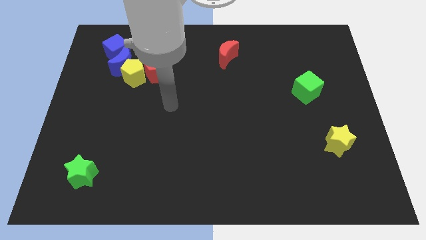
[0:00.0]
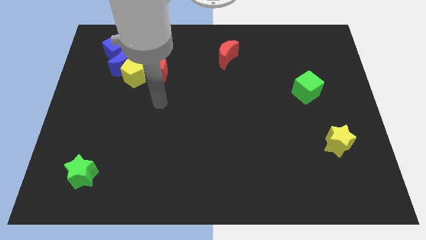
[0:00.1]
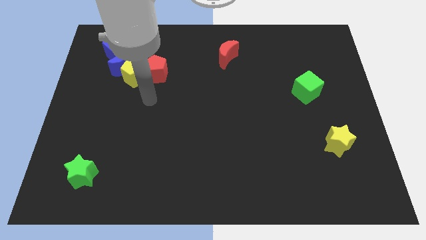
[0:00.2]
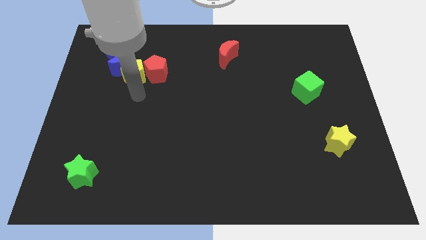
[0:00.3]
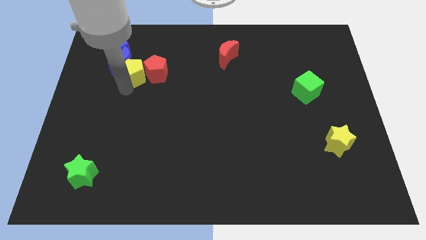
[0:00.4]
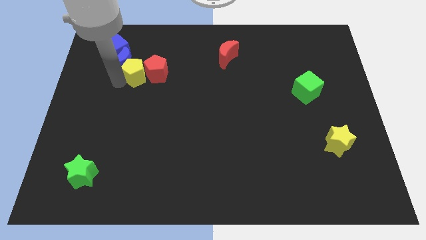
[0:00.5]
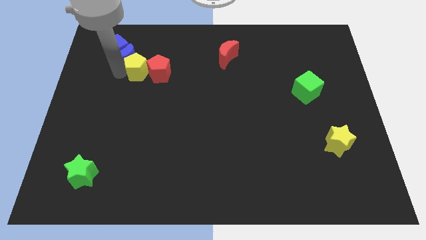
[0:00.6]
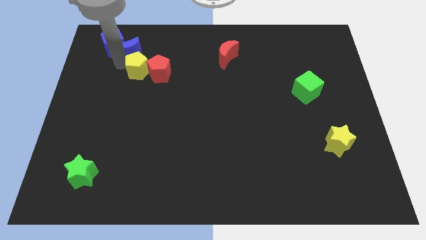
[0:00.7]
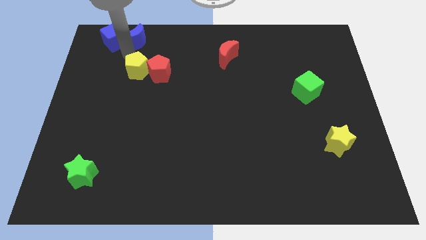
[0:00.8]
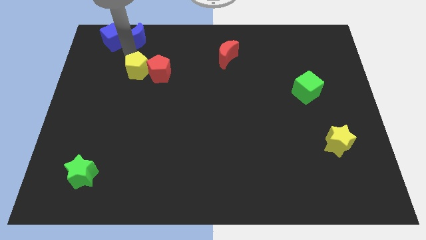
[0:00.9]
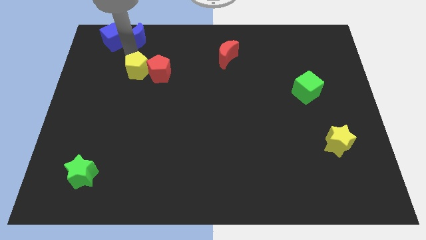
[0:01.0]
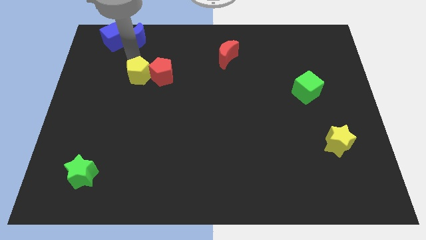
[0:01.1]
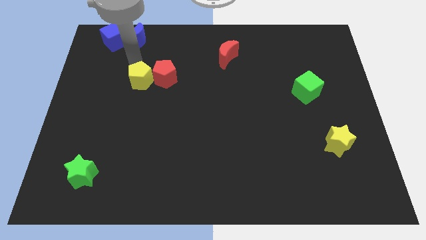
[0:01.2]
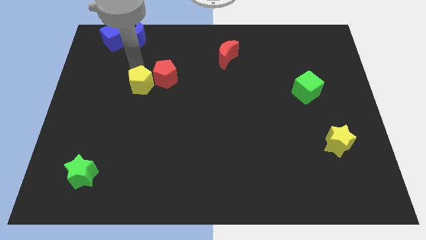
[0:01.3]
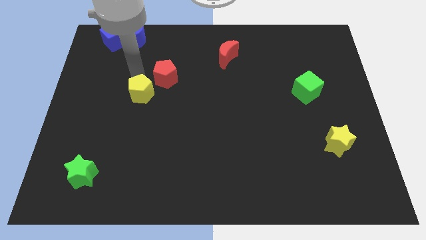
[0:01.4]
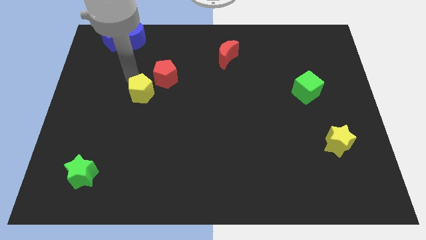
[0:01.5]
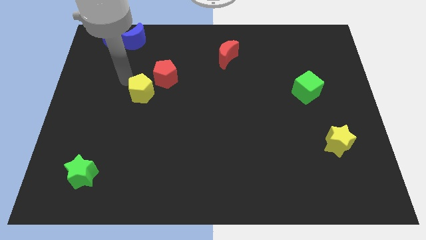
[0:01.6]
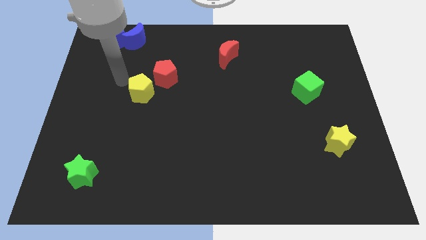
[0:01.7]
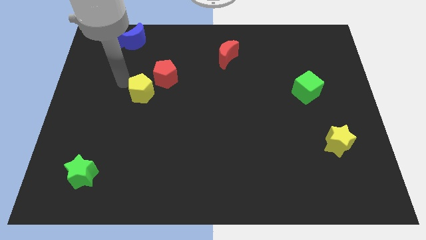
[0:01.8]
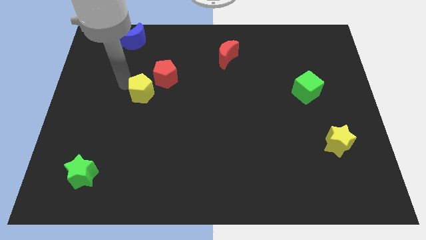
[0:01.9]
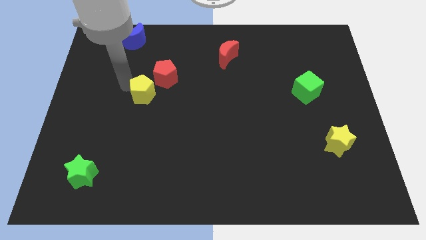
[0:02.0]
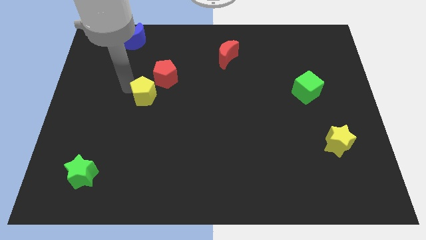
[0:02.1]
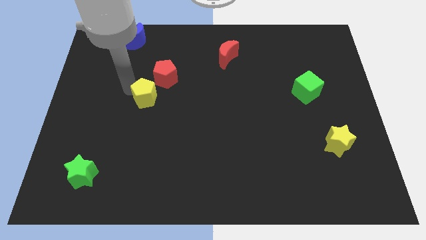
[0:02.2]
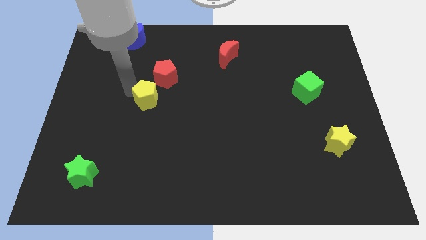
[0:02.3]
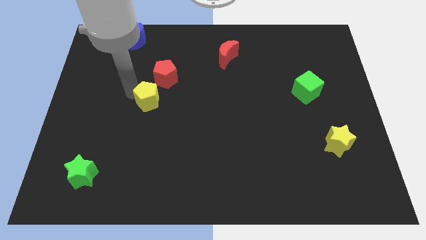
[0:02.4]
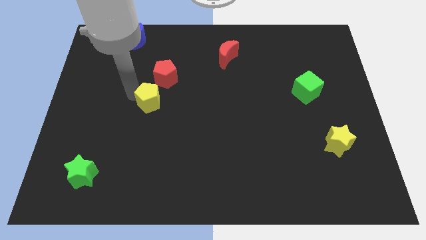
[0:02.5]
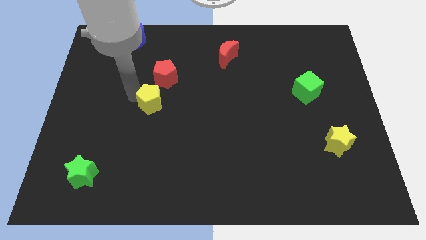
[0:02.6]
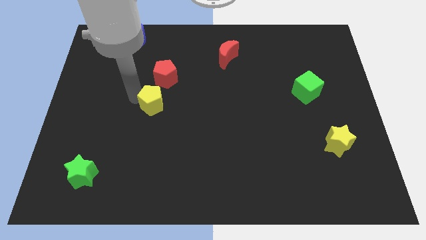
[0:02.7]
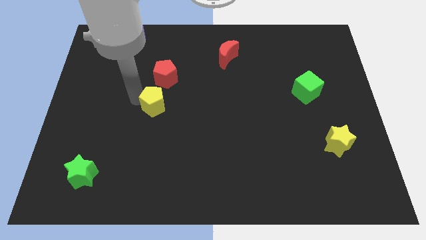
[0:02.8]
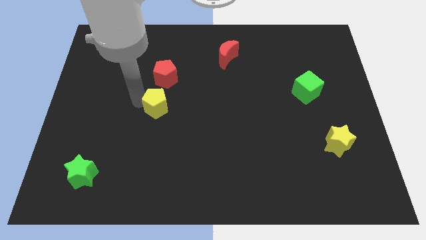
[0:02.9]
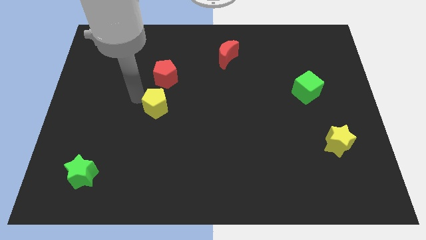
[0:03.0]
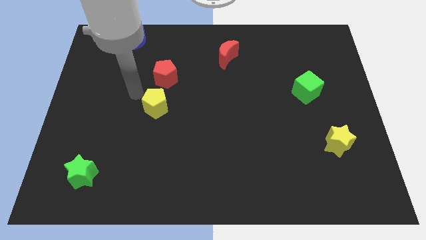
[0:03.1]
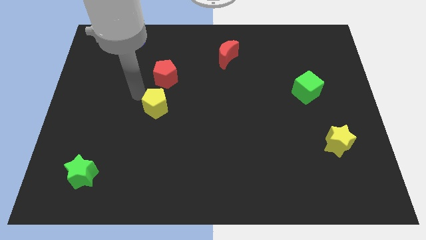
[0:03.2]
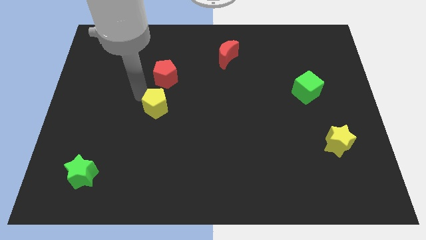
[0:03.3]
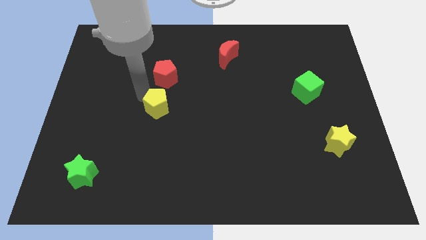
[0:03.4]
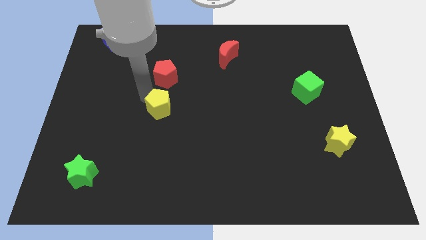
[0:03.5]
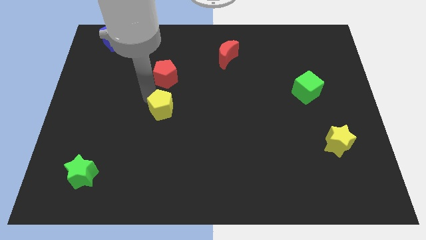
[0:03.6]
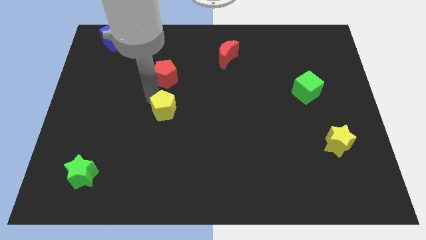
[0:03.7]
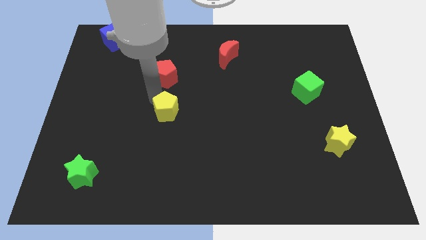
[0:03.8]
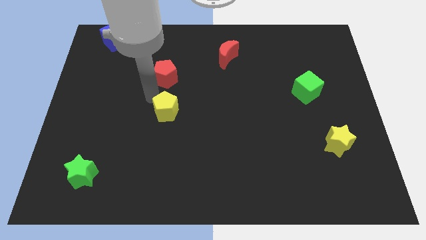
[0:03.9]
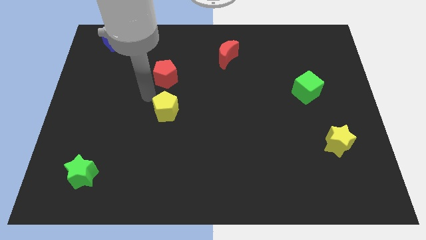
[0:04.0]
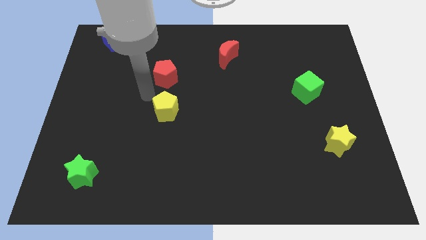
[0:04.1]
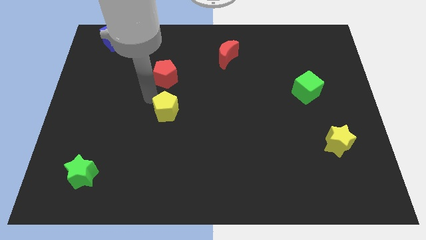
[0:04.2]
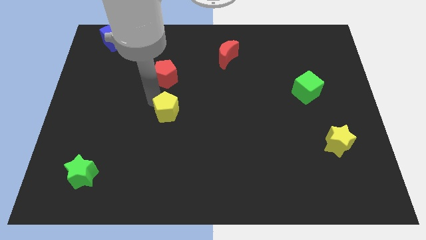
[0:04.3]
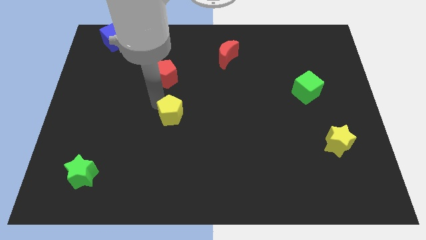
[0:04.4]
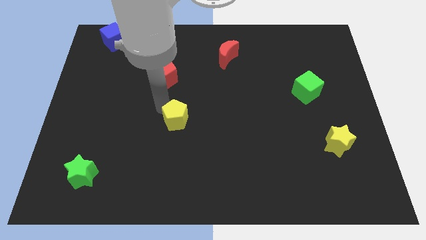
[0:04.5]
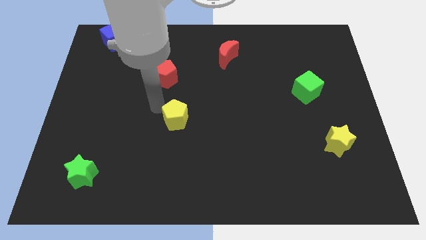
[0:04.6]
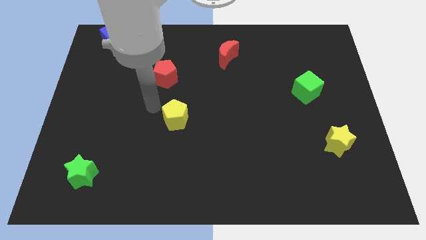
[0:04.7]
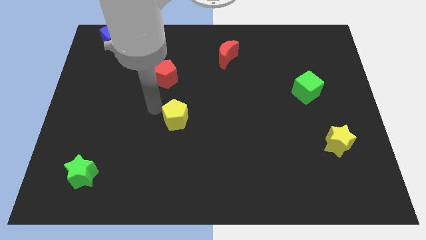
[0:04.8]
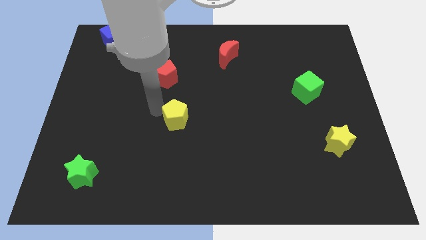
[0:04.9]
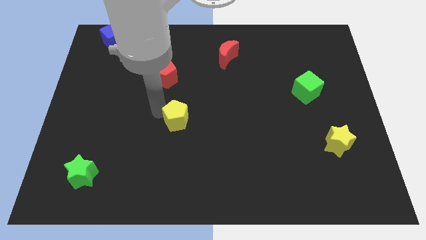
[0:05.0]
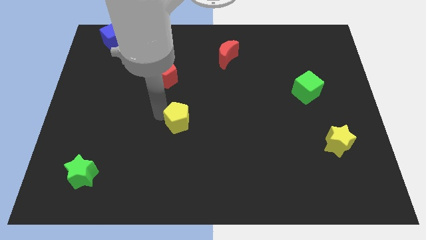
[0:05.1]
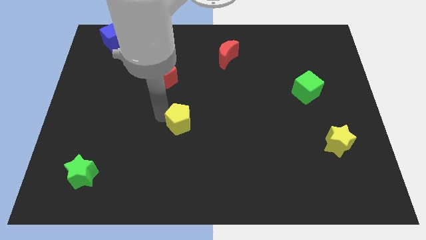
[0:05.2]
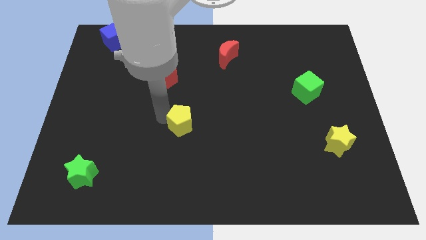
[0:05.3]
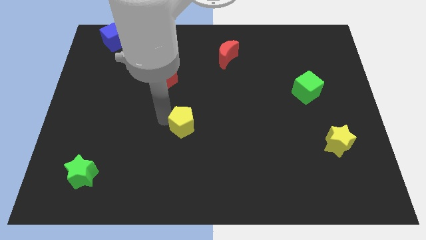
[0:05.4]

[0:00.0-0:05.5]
slide the yellow pentagon down and then to the right

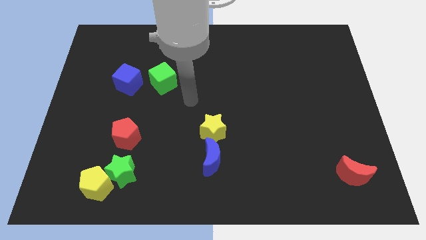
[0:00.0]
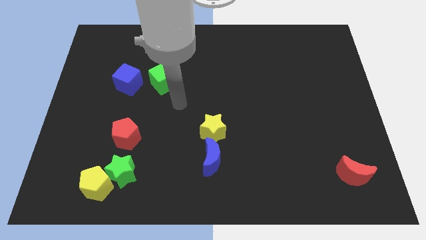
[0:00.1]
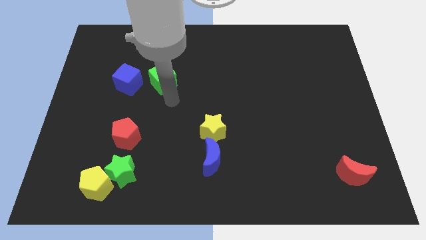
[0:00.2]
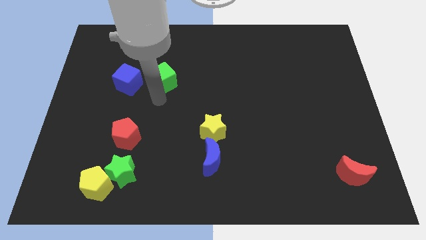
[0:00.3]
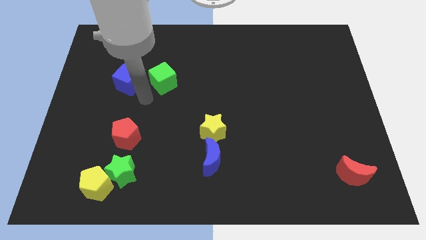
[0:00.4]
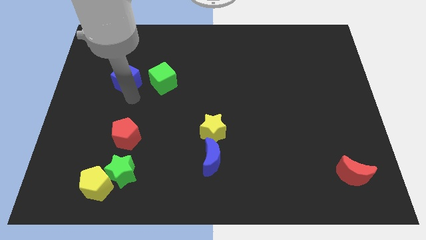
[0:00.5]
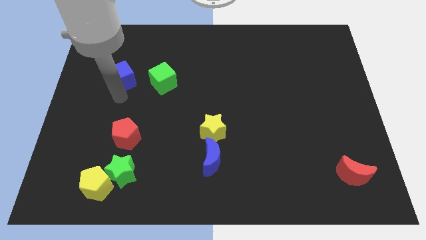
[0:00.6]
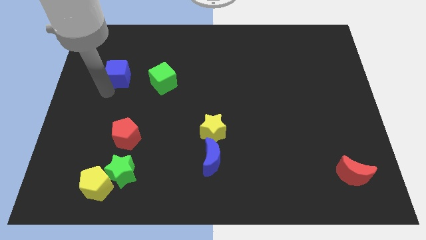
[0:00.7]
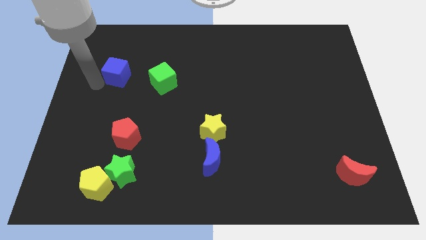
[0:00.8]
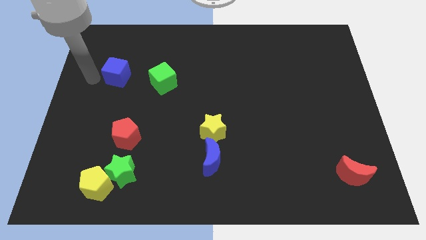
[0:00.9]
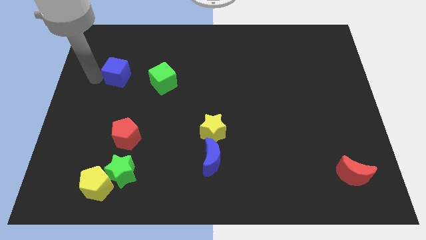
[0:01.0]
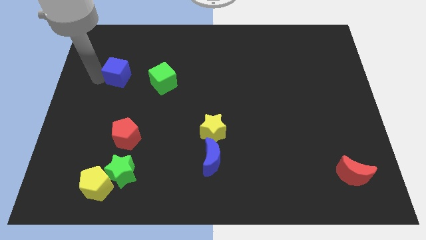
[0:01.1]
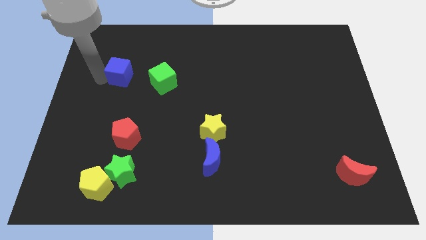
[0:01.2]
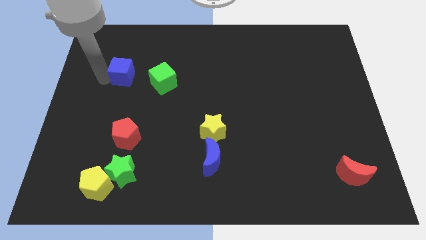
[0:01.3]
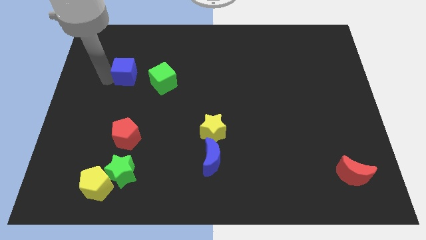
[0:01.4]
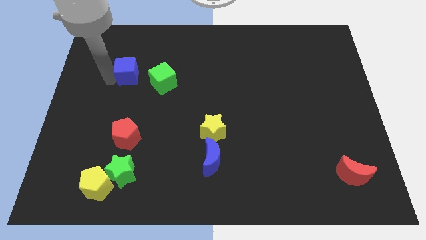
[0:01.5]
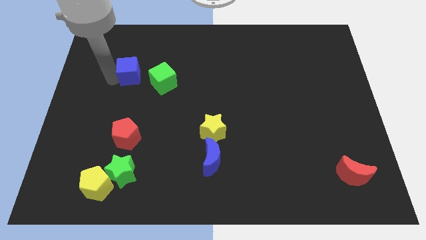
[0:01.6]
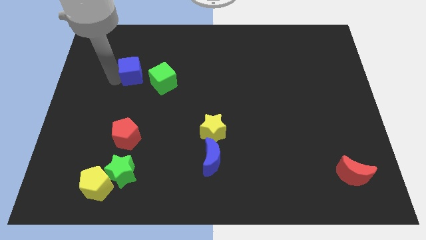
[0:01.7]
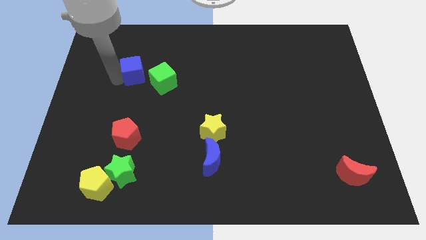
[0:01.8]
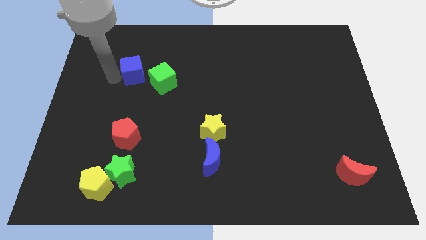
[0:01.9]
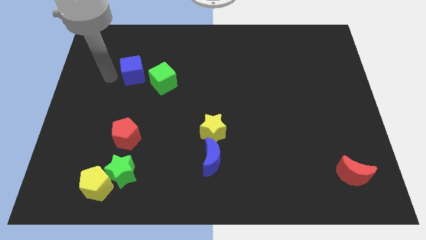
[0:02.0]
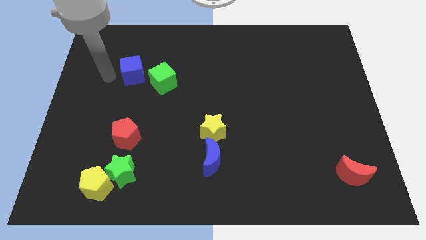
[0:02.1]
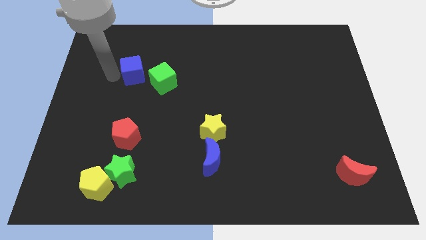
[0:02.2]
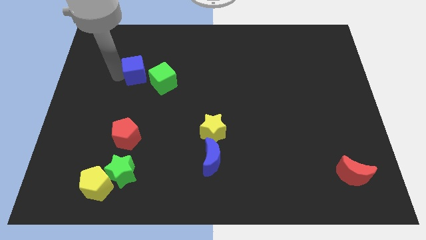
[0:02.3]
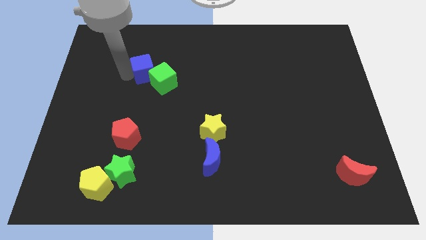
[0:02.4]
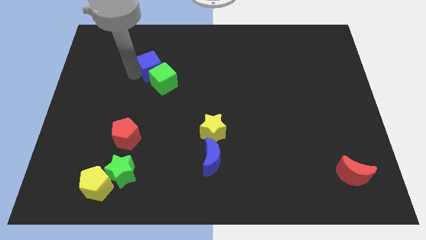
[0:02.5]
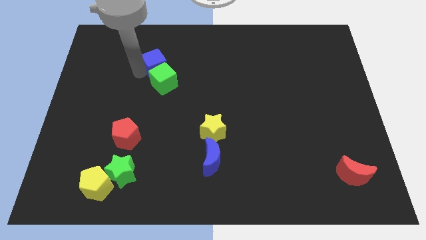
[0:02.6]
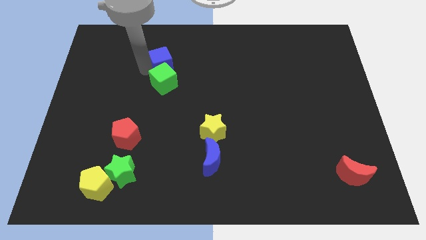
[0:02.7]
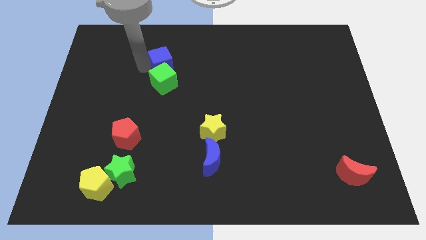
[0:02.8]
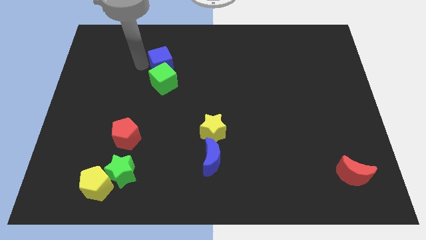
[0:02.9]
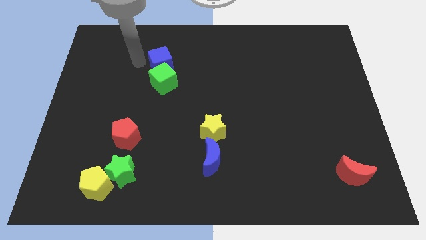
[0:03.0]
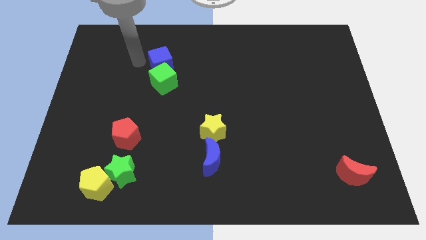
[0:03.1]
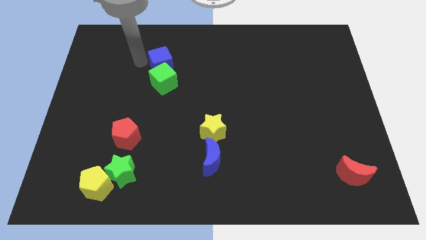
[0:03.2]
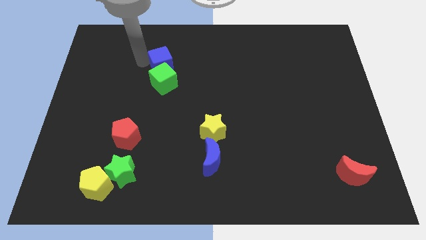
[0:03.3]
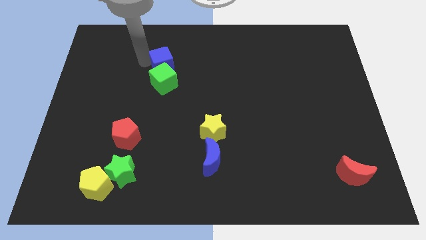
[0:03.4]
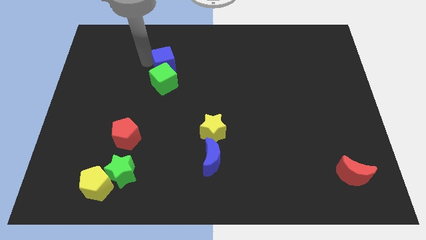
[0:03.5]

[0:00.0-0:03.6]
slide the blue cube a little bit right
